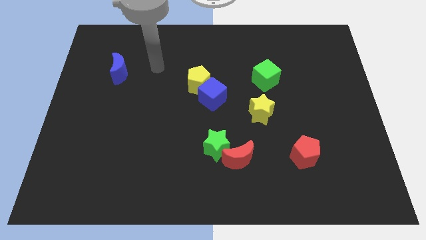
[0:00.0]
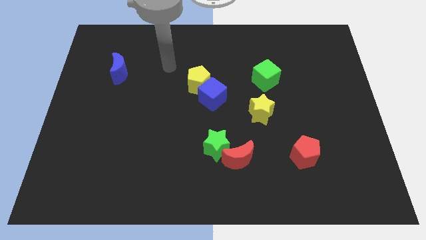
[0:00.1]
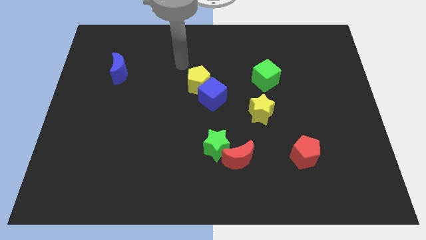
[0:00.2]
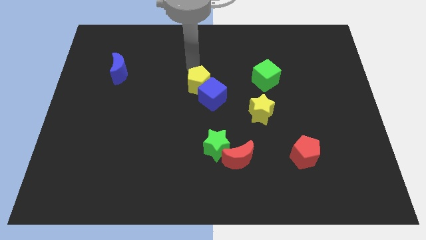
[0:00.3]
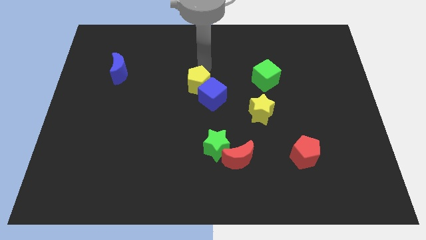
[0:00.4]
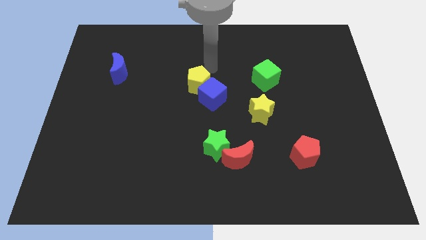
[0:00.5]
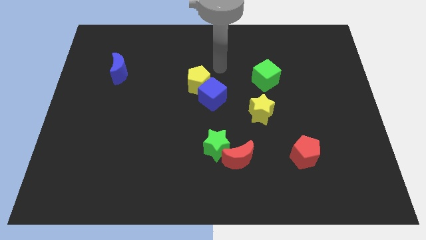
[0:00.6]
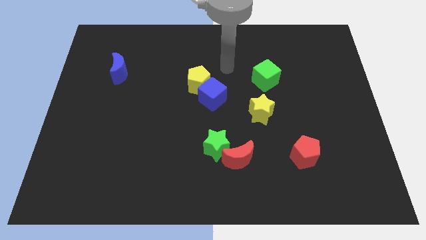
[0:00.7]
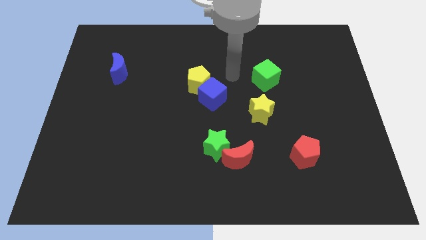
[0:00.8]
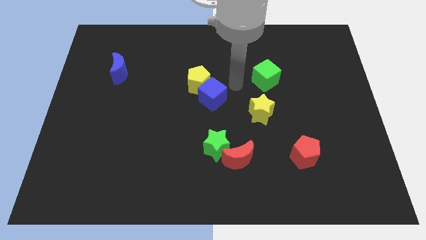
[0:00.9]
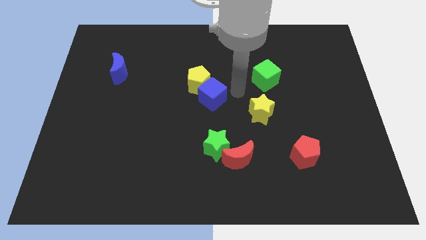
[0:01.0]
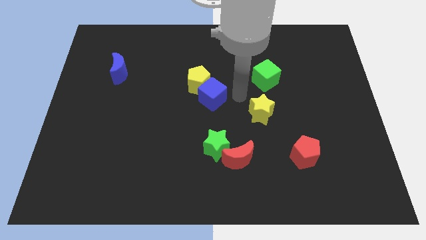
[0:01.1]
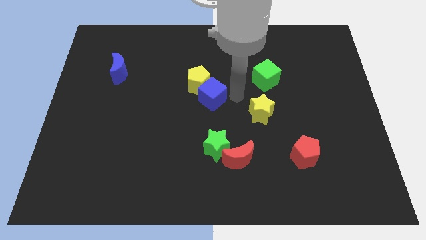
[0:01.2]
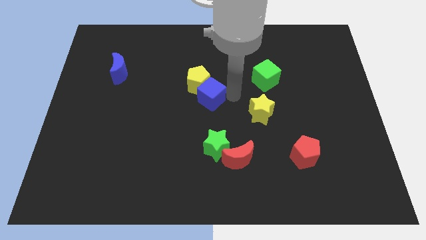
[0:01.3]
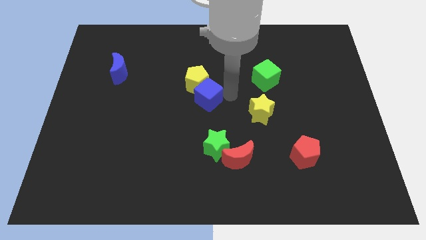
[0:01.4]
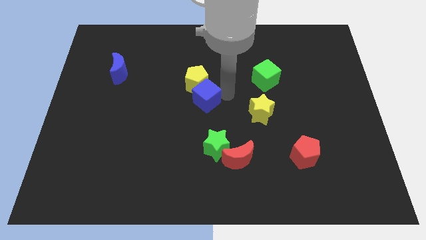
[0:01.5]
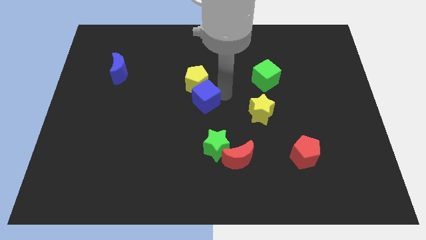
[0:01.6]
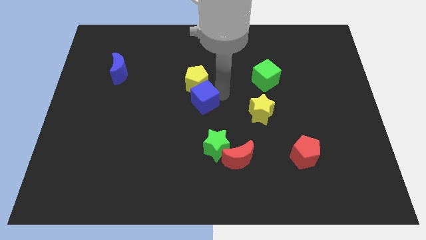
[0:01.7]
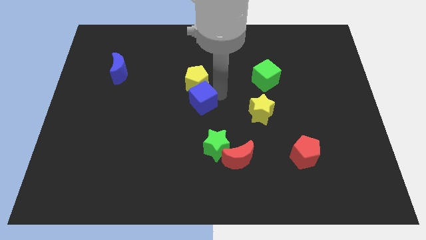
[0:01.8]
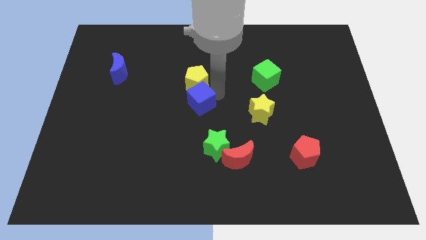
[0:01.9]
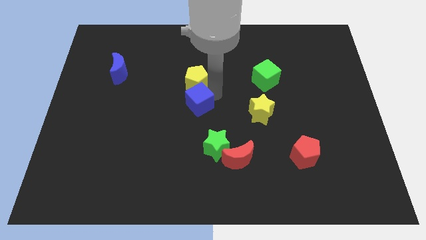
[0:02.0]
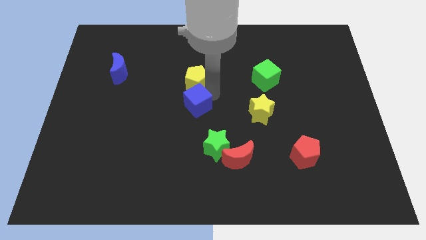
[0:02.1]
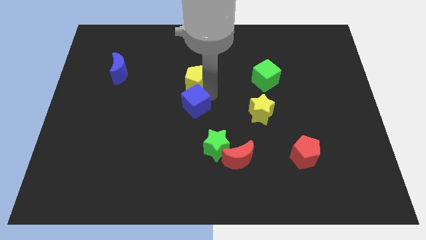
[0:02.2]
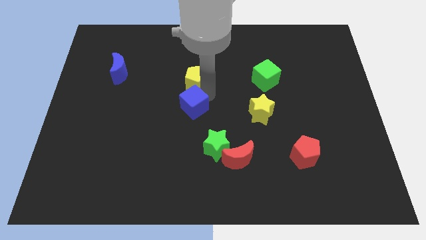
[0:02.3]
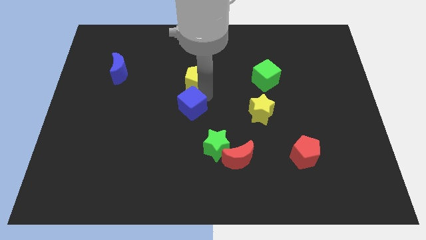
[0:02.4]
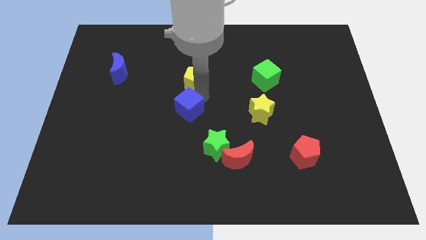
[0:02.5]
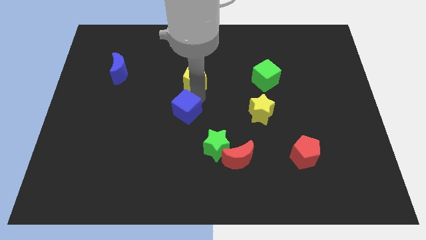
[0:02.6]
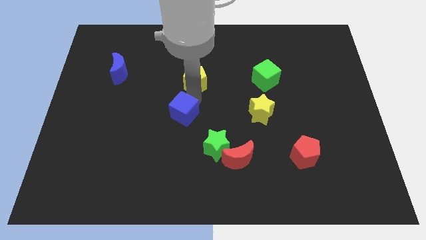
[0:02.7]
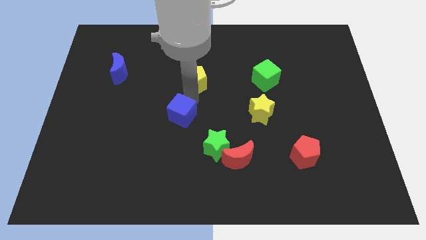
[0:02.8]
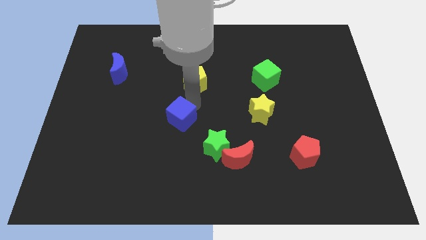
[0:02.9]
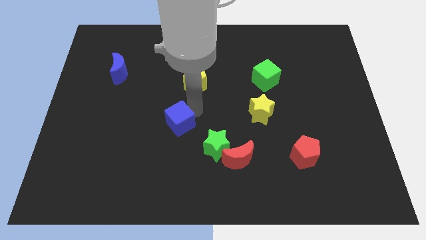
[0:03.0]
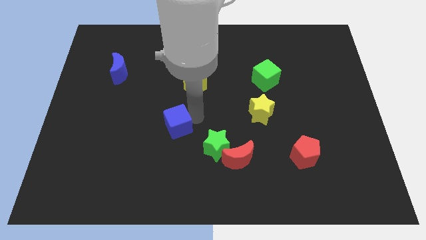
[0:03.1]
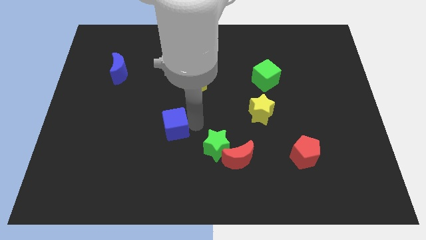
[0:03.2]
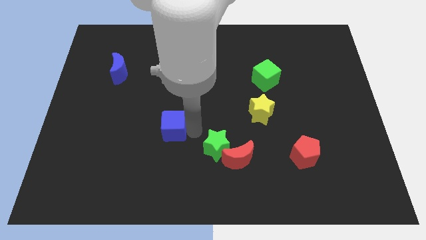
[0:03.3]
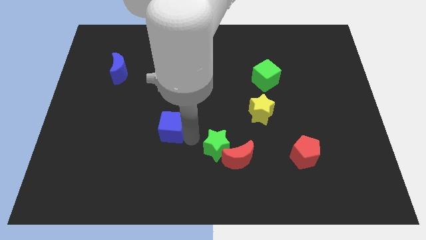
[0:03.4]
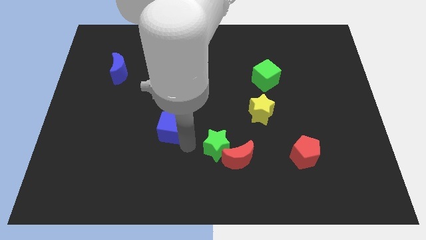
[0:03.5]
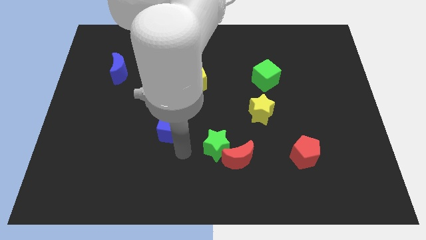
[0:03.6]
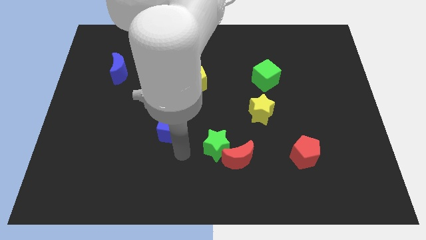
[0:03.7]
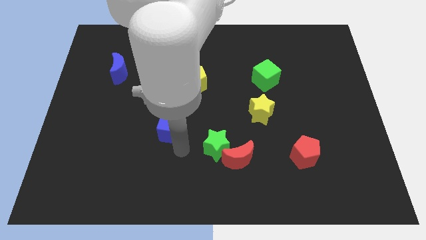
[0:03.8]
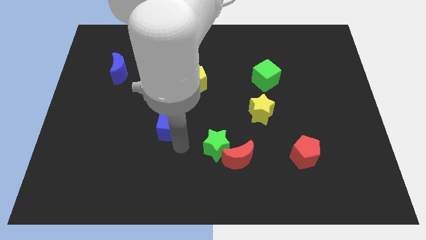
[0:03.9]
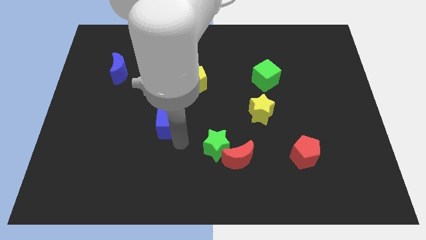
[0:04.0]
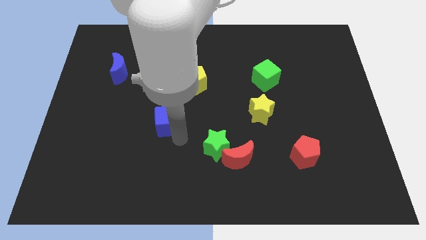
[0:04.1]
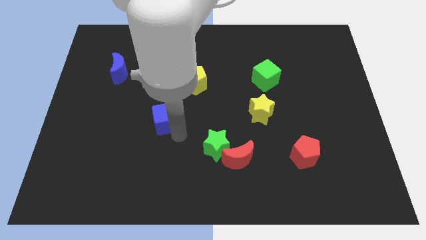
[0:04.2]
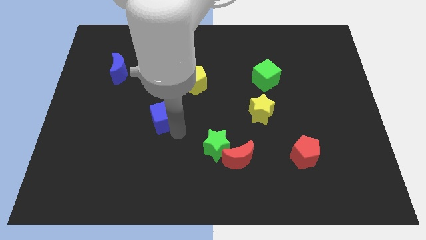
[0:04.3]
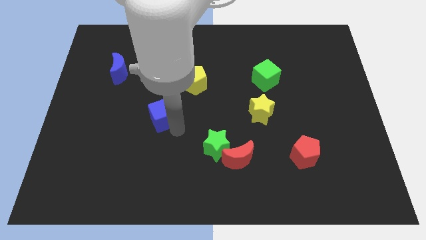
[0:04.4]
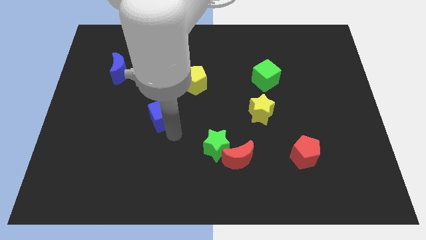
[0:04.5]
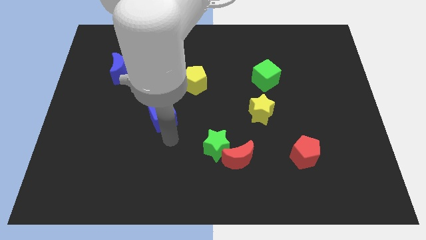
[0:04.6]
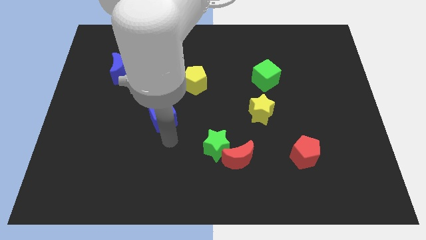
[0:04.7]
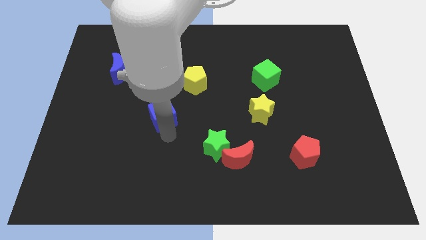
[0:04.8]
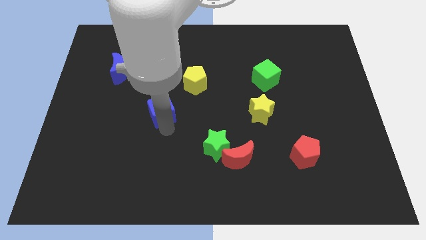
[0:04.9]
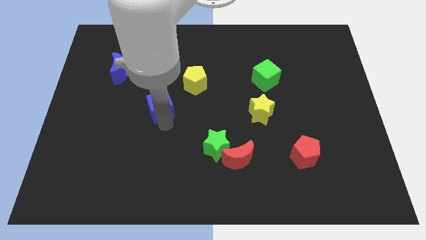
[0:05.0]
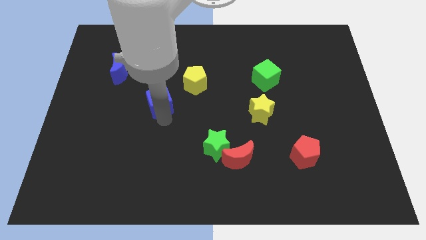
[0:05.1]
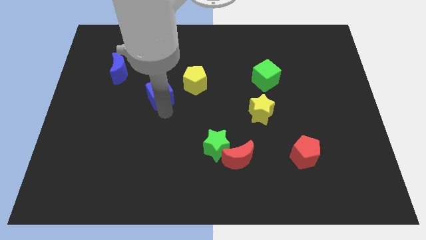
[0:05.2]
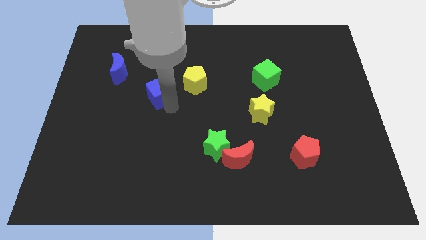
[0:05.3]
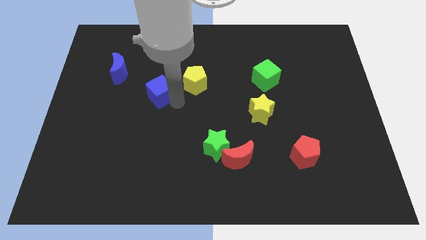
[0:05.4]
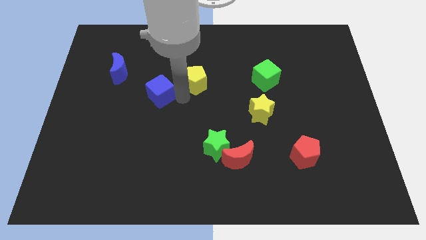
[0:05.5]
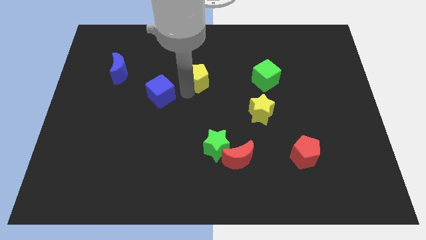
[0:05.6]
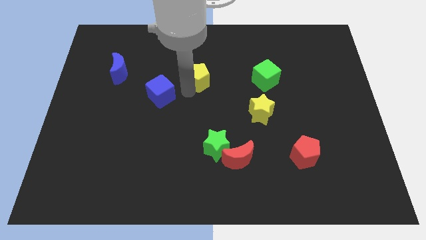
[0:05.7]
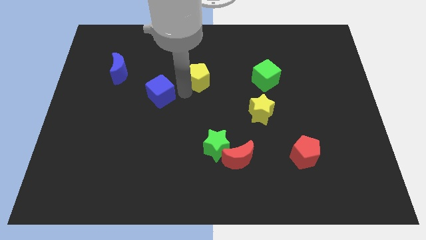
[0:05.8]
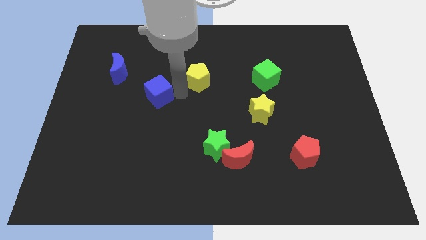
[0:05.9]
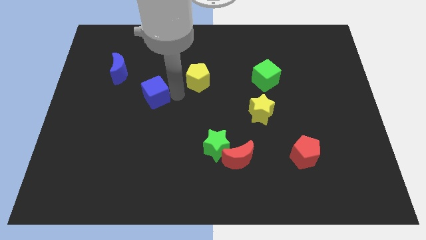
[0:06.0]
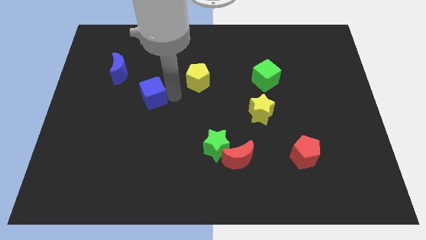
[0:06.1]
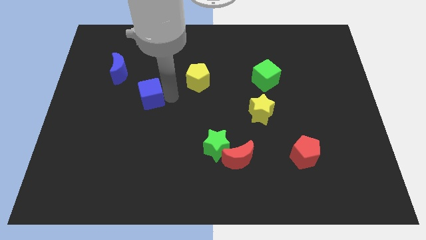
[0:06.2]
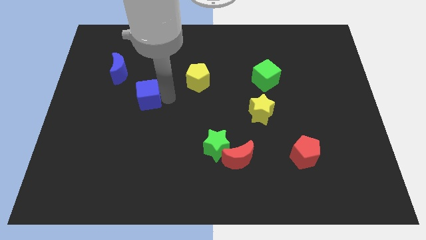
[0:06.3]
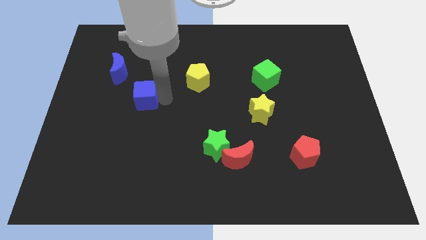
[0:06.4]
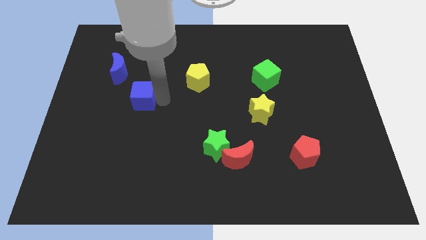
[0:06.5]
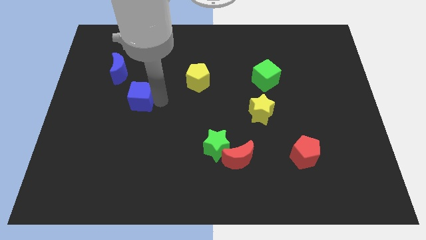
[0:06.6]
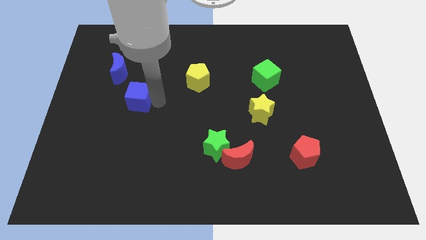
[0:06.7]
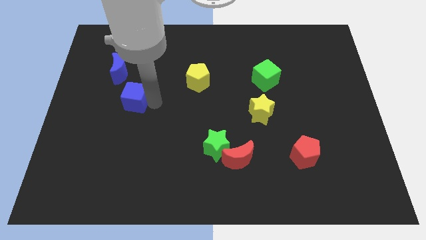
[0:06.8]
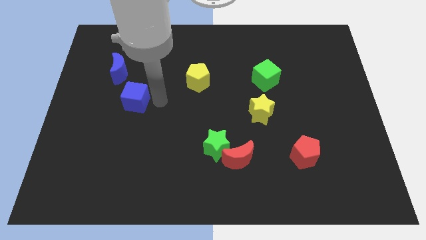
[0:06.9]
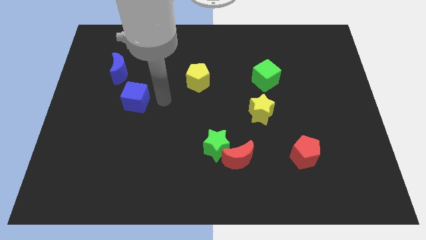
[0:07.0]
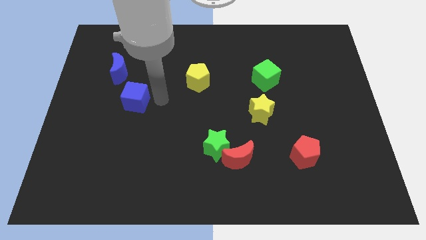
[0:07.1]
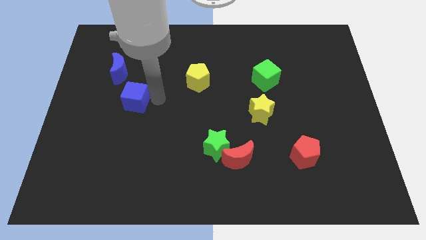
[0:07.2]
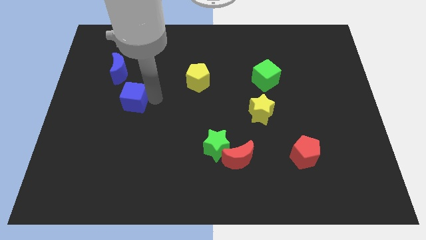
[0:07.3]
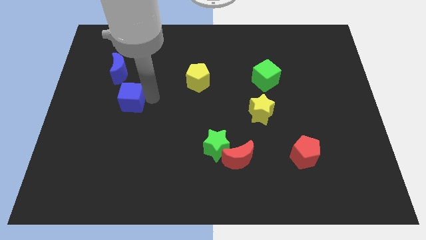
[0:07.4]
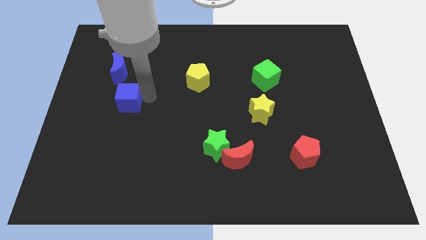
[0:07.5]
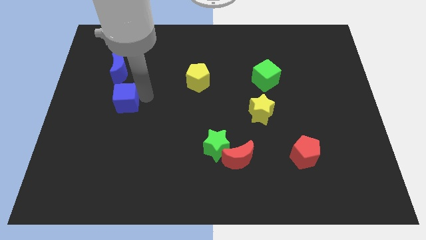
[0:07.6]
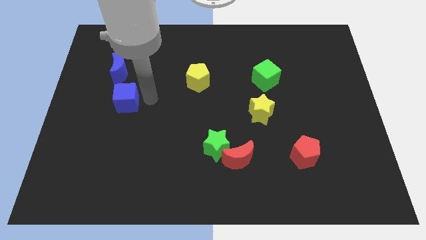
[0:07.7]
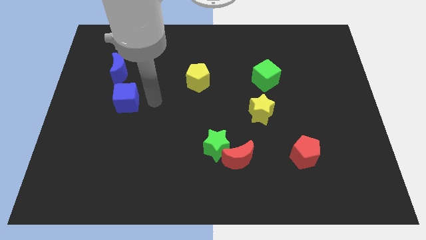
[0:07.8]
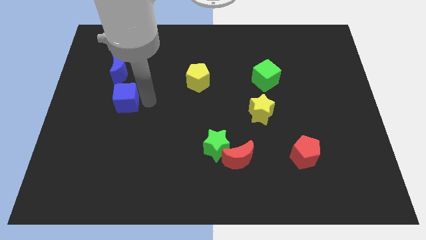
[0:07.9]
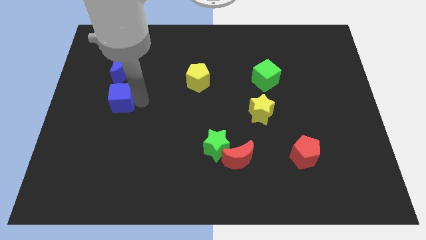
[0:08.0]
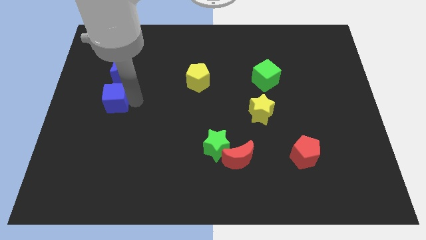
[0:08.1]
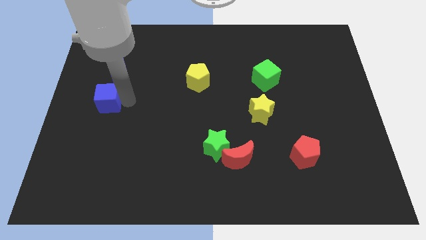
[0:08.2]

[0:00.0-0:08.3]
move the blue cube to the center left
